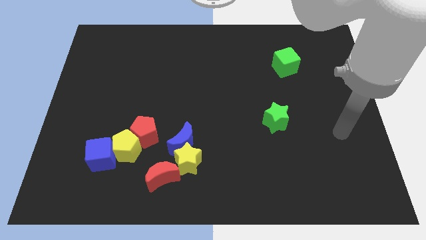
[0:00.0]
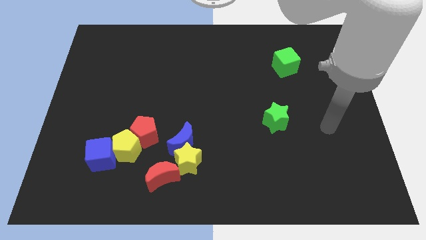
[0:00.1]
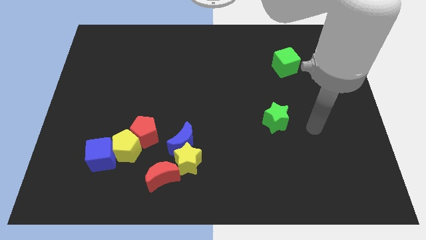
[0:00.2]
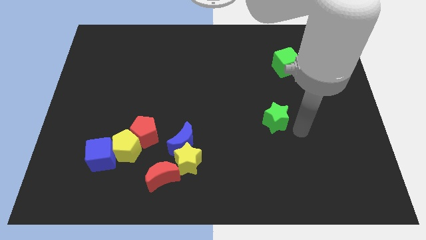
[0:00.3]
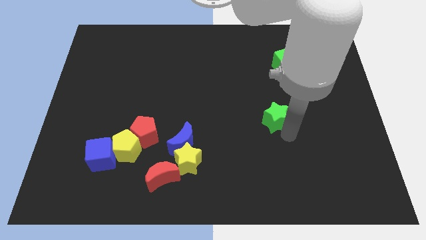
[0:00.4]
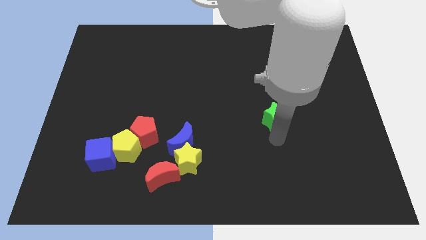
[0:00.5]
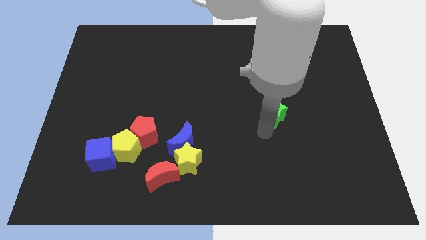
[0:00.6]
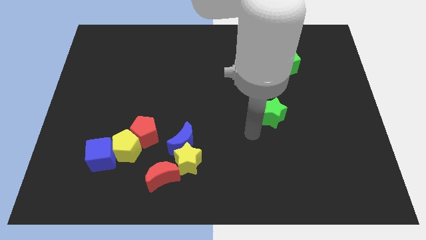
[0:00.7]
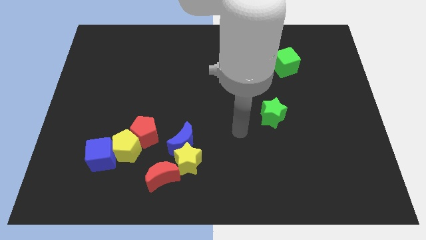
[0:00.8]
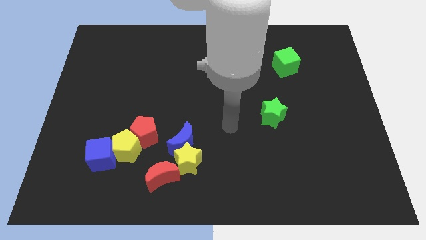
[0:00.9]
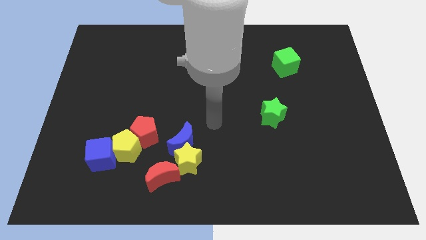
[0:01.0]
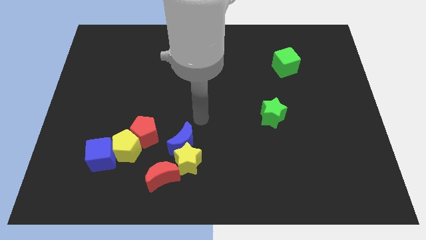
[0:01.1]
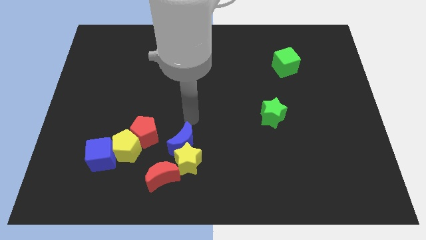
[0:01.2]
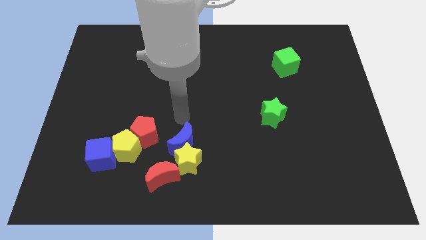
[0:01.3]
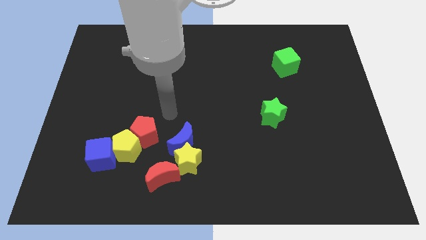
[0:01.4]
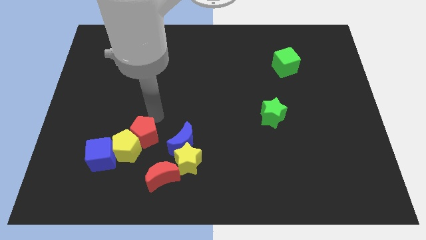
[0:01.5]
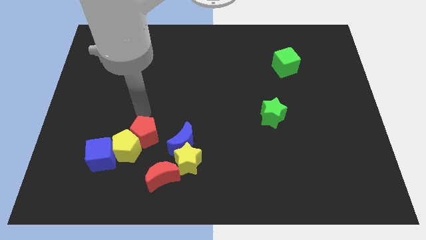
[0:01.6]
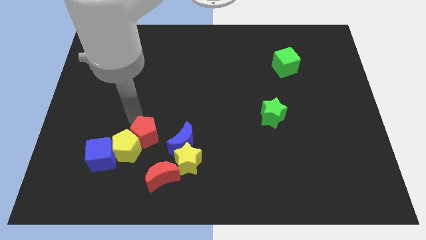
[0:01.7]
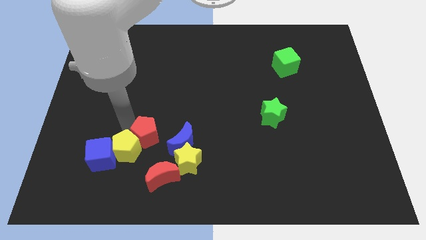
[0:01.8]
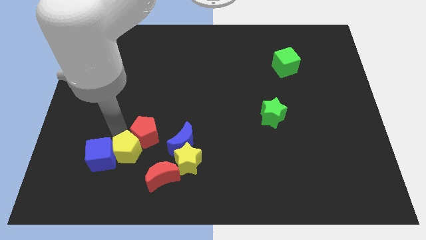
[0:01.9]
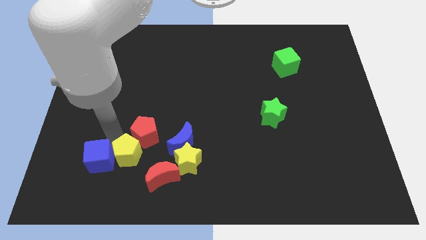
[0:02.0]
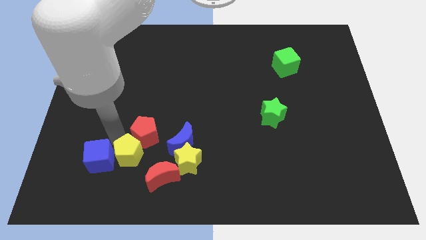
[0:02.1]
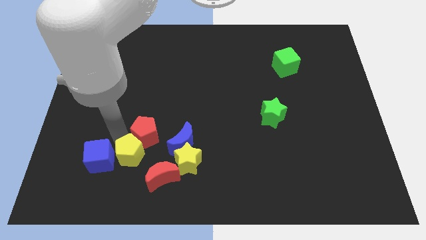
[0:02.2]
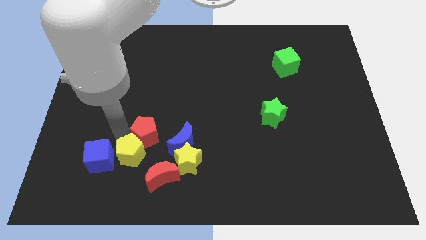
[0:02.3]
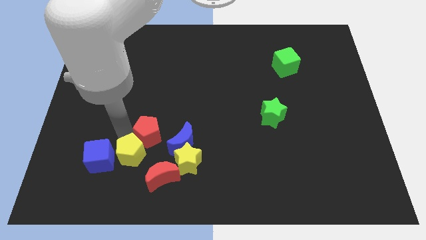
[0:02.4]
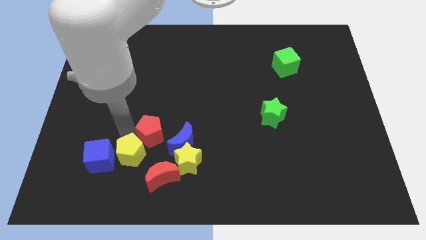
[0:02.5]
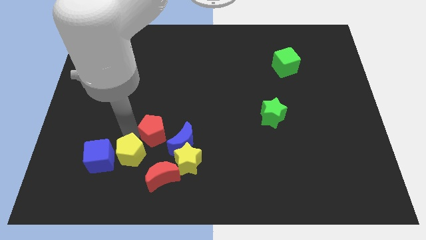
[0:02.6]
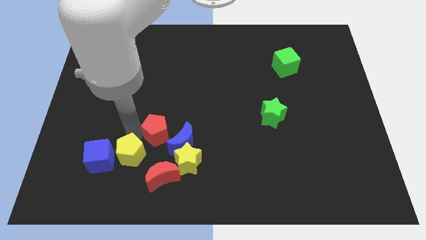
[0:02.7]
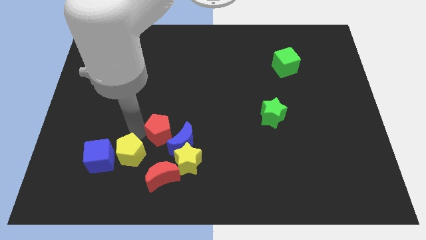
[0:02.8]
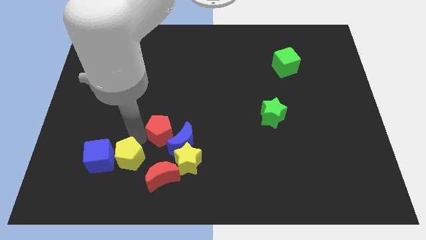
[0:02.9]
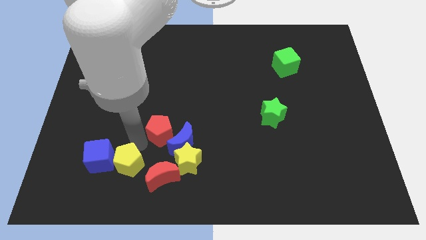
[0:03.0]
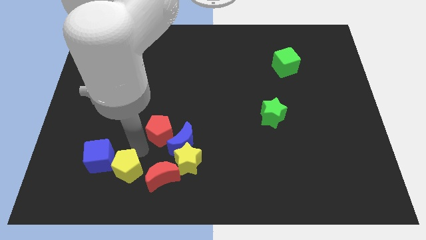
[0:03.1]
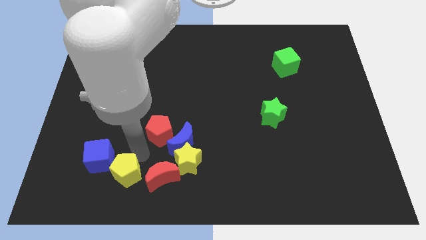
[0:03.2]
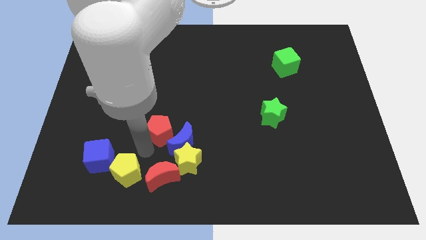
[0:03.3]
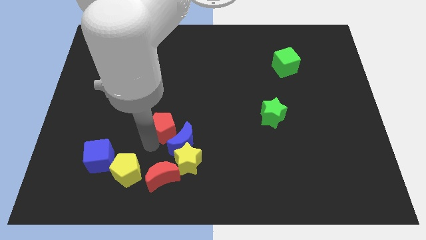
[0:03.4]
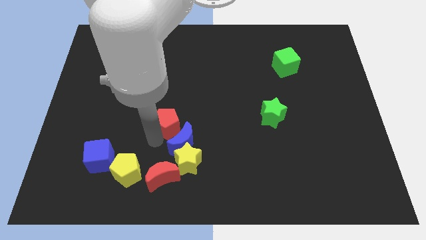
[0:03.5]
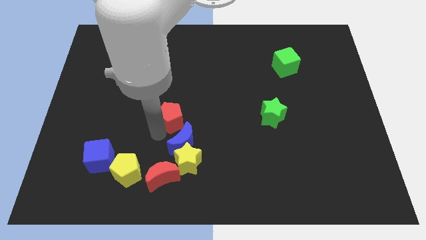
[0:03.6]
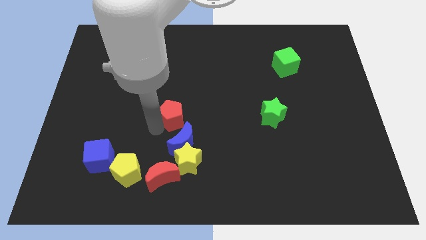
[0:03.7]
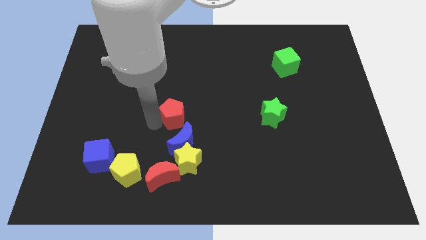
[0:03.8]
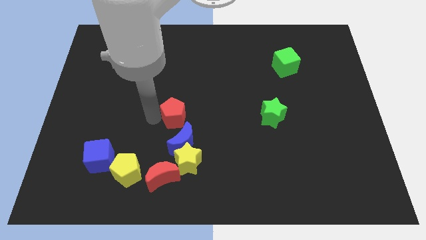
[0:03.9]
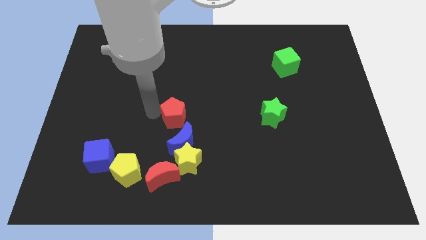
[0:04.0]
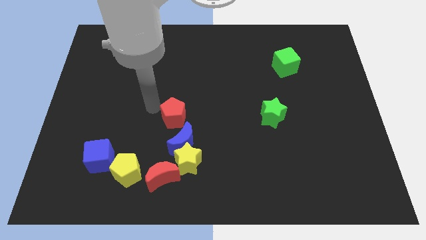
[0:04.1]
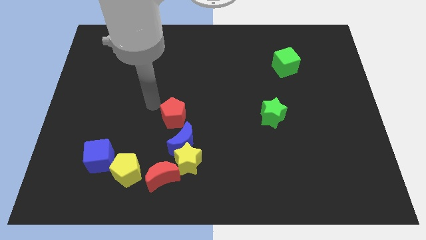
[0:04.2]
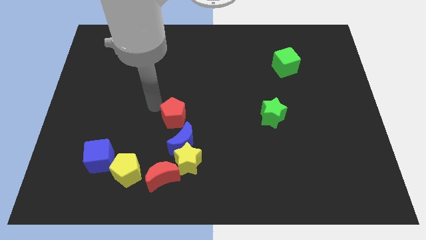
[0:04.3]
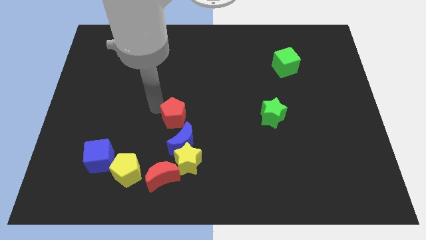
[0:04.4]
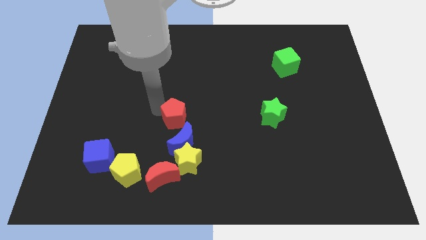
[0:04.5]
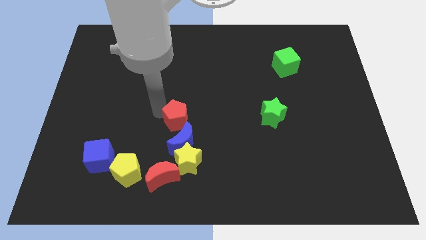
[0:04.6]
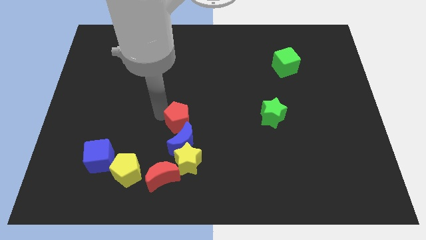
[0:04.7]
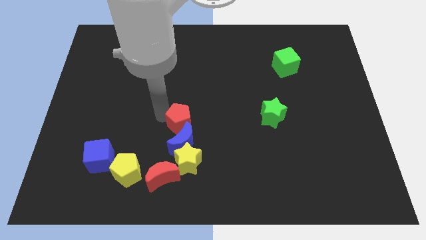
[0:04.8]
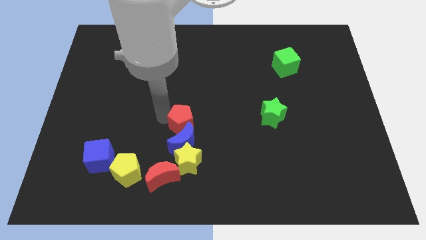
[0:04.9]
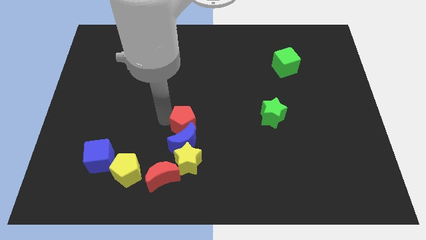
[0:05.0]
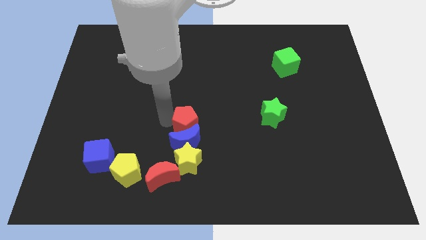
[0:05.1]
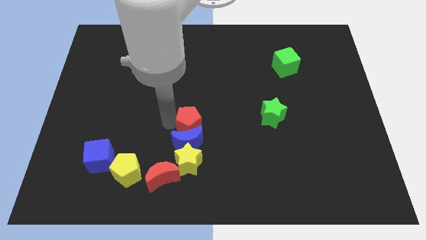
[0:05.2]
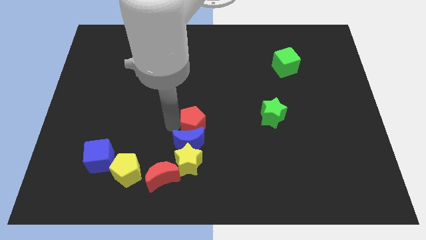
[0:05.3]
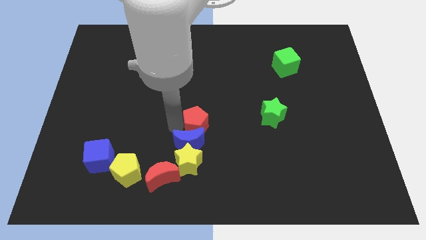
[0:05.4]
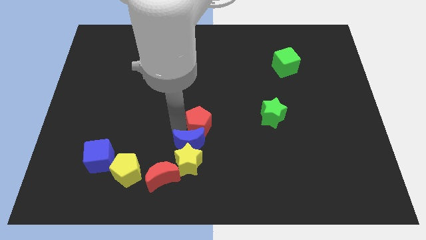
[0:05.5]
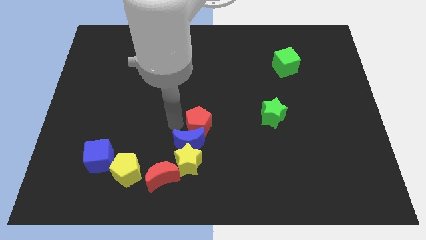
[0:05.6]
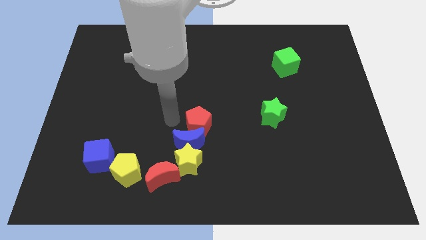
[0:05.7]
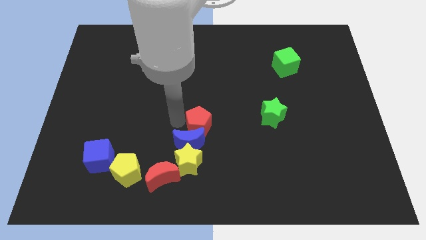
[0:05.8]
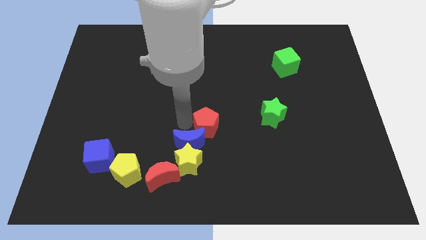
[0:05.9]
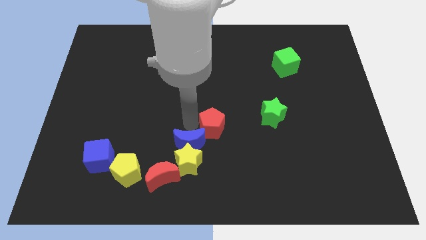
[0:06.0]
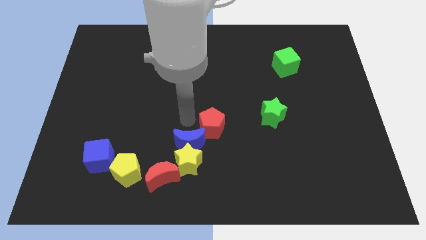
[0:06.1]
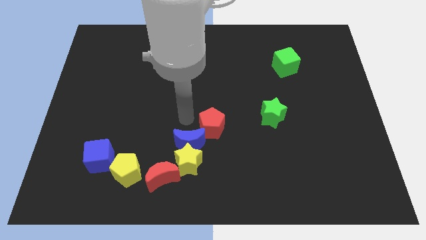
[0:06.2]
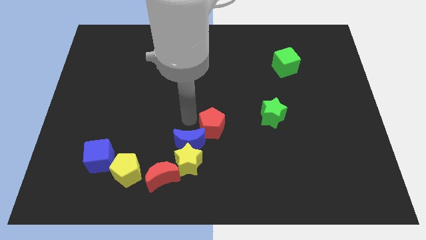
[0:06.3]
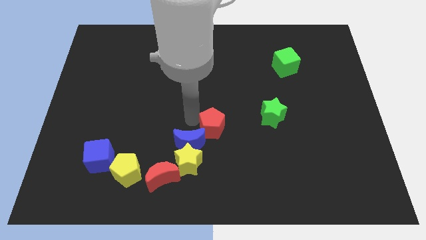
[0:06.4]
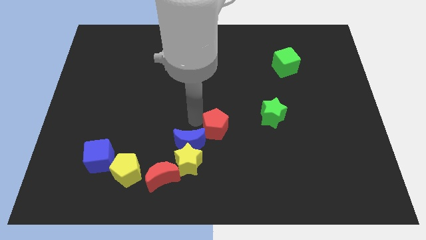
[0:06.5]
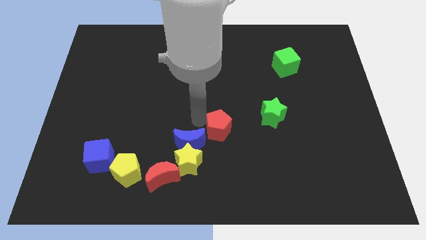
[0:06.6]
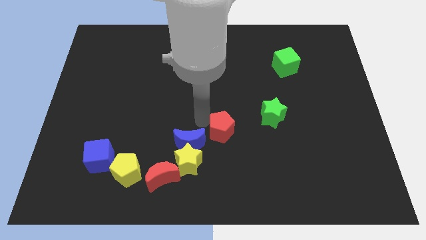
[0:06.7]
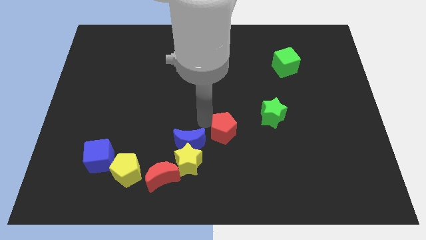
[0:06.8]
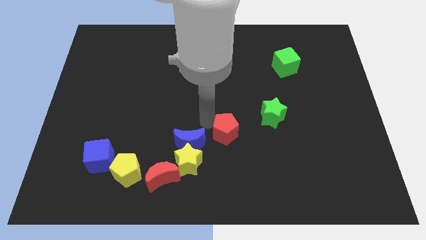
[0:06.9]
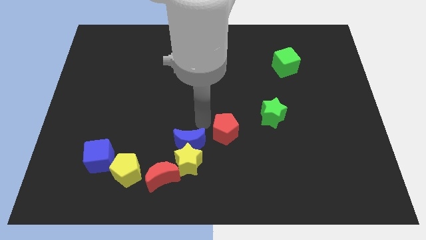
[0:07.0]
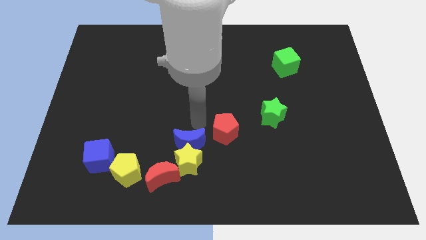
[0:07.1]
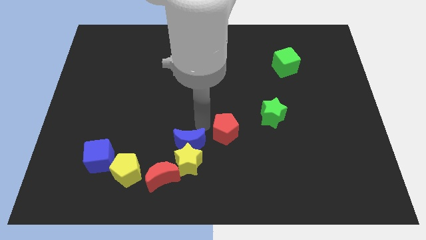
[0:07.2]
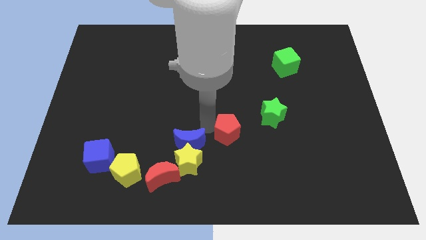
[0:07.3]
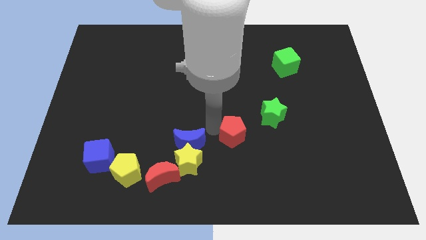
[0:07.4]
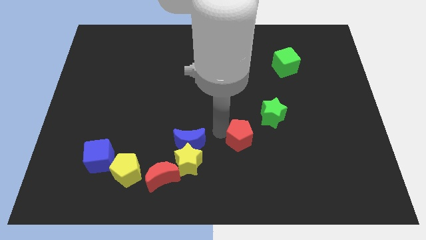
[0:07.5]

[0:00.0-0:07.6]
move the red pentagon to the right

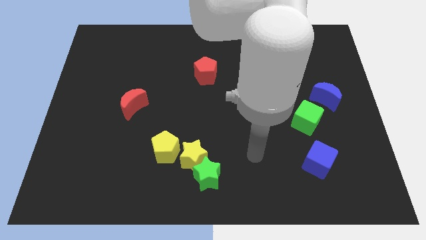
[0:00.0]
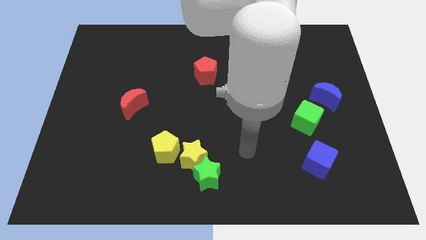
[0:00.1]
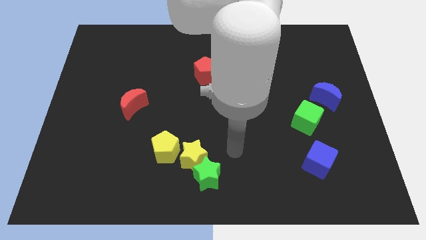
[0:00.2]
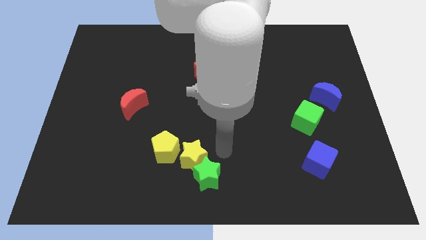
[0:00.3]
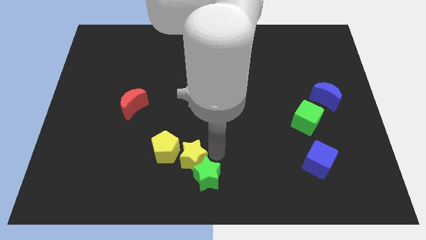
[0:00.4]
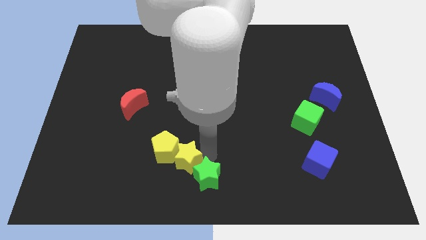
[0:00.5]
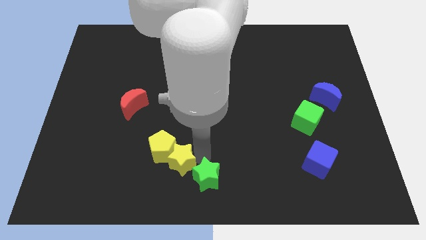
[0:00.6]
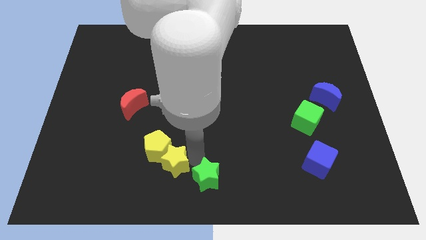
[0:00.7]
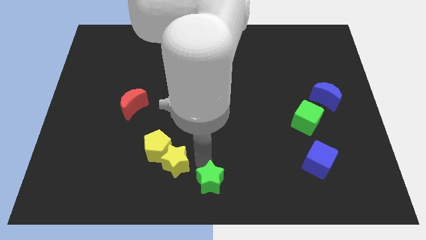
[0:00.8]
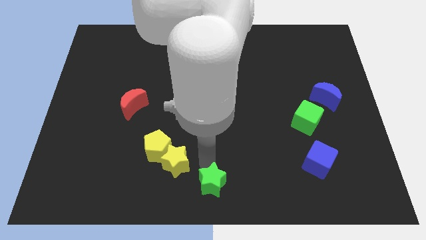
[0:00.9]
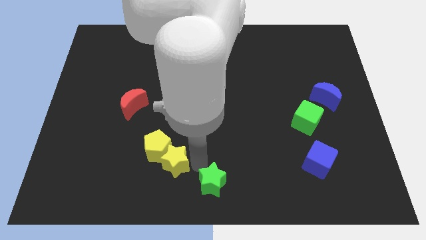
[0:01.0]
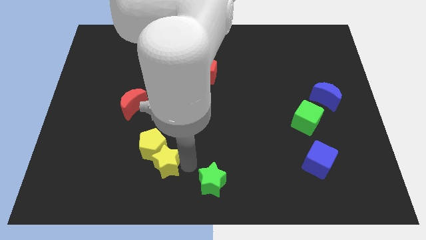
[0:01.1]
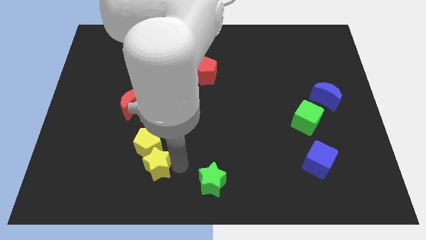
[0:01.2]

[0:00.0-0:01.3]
push the yellow star somewhat left
